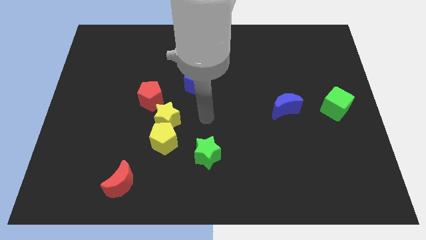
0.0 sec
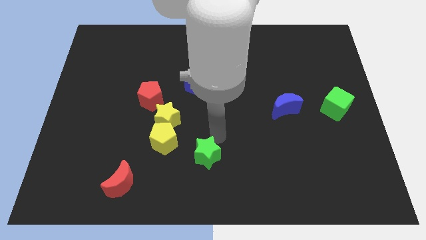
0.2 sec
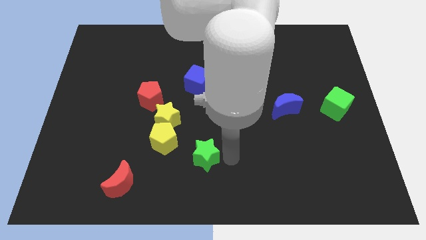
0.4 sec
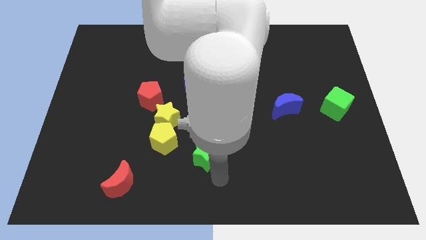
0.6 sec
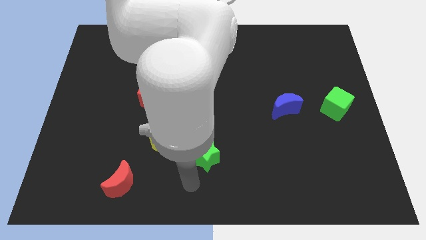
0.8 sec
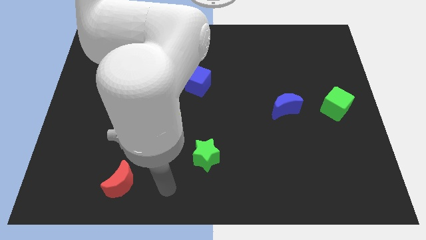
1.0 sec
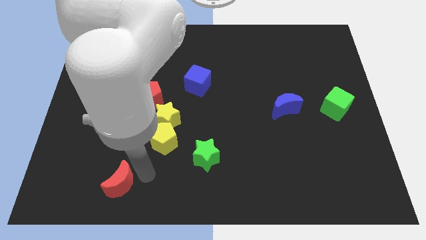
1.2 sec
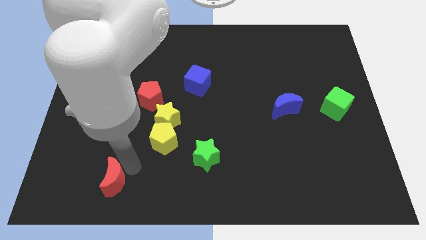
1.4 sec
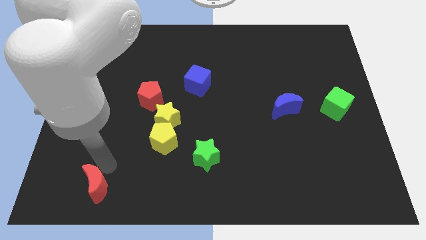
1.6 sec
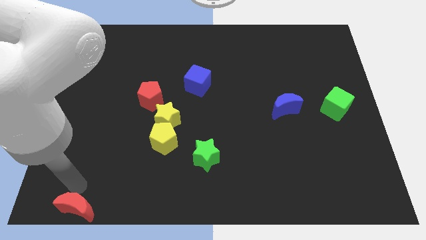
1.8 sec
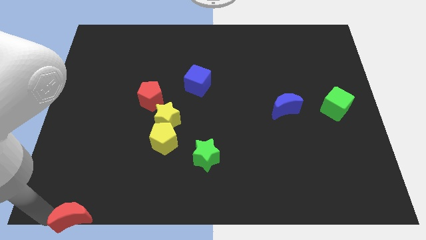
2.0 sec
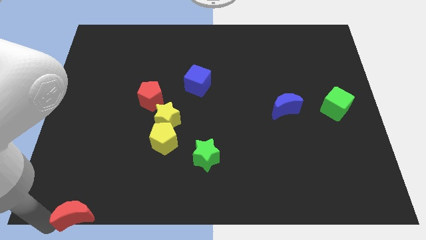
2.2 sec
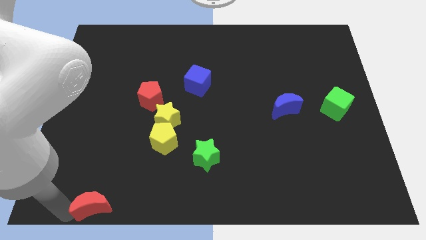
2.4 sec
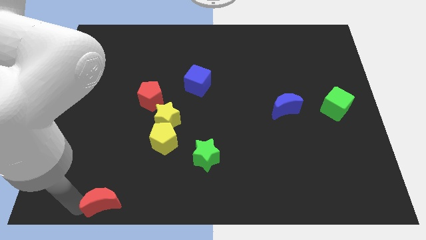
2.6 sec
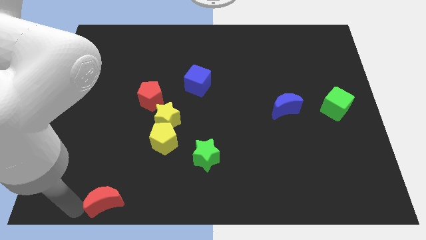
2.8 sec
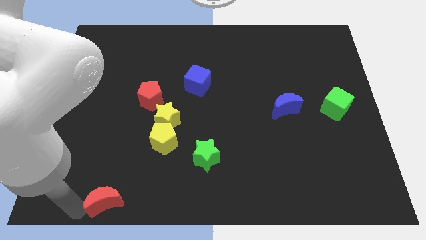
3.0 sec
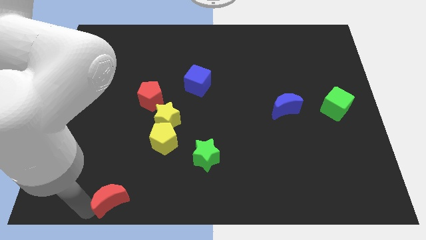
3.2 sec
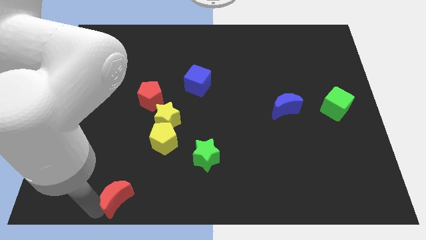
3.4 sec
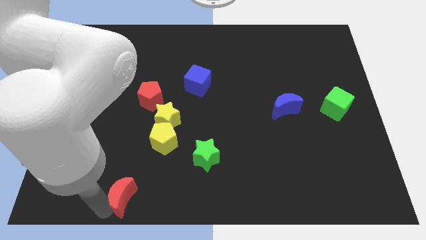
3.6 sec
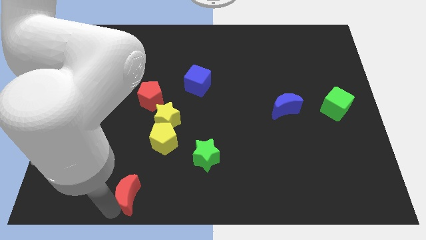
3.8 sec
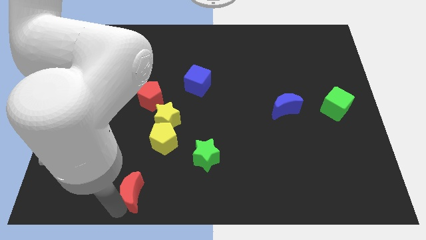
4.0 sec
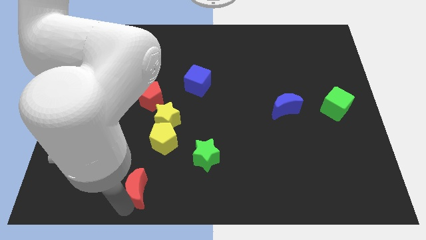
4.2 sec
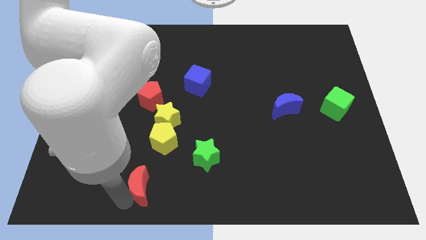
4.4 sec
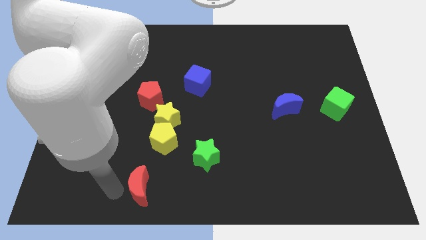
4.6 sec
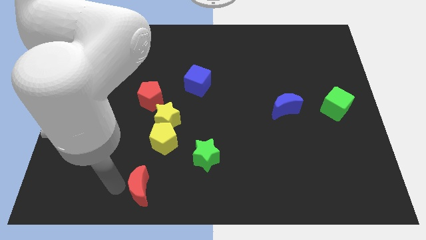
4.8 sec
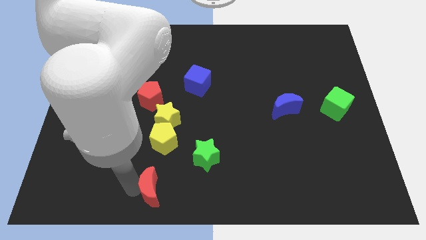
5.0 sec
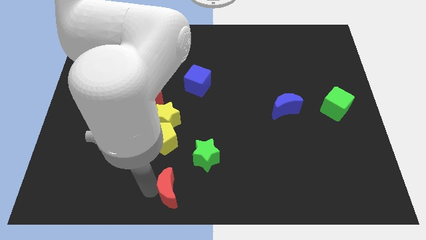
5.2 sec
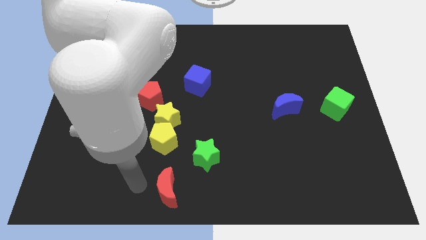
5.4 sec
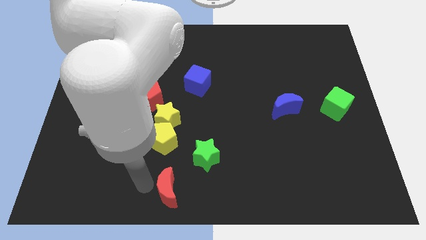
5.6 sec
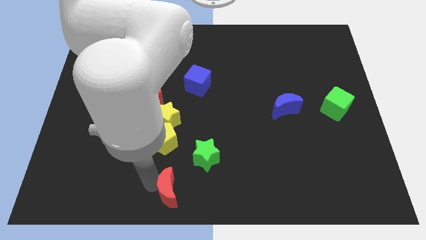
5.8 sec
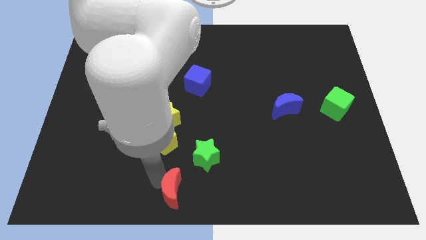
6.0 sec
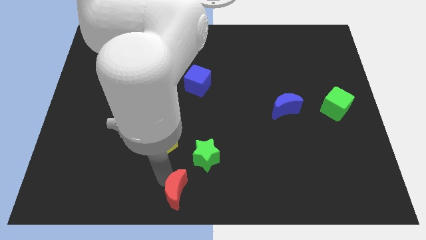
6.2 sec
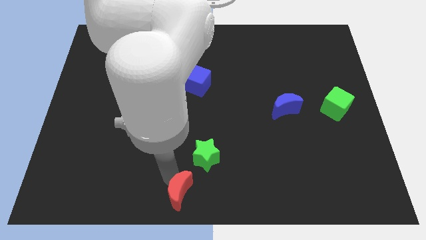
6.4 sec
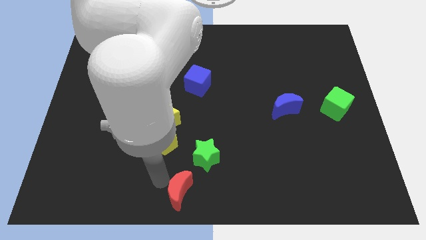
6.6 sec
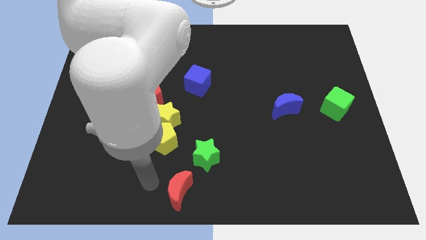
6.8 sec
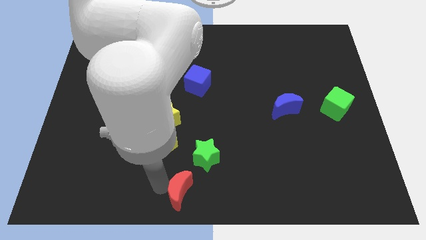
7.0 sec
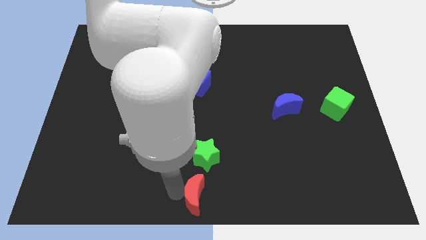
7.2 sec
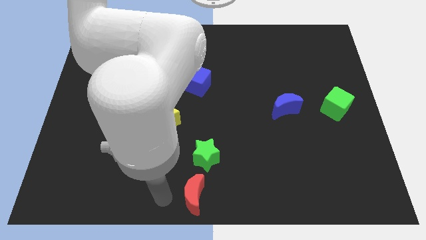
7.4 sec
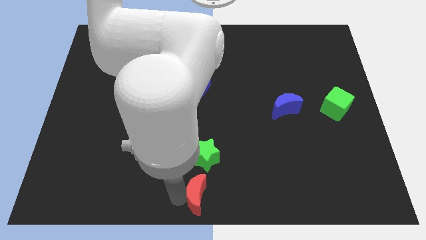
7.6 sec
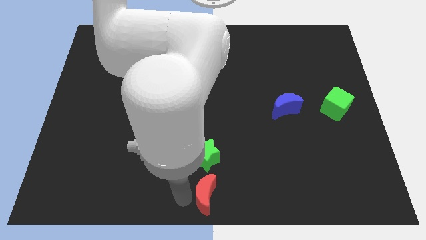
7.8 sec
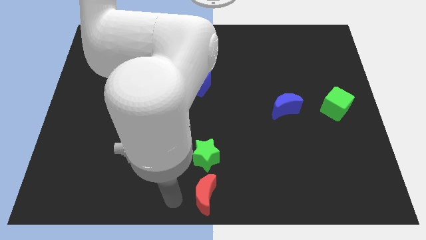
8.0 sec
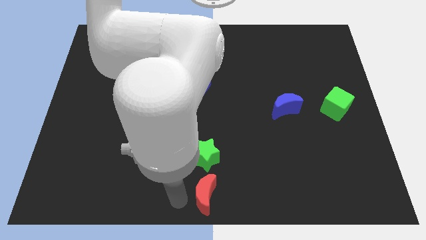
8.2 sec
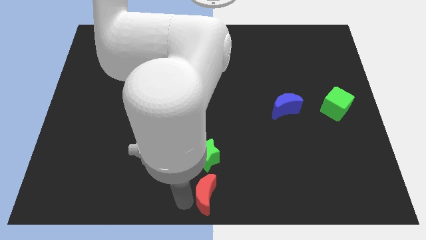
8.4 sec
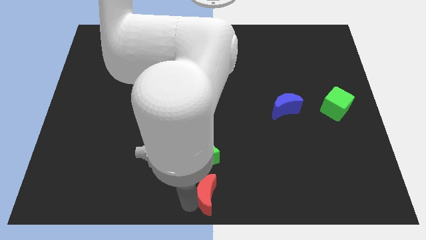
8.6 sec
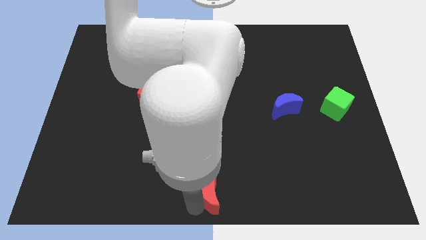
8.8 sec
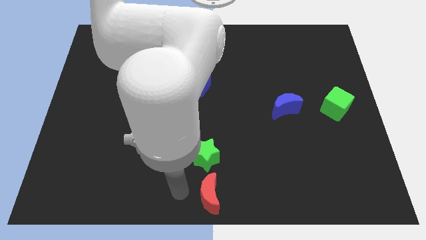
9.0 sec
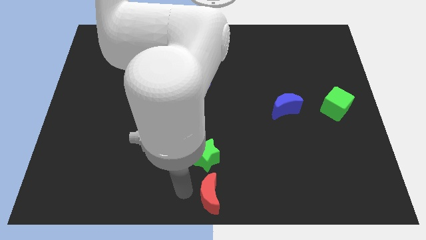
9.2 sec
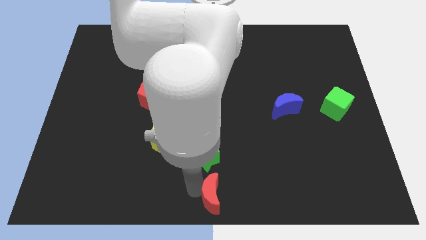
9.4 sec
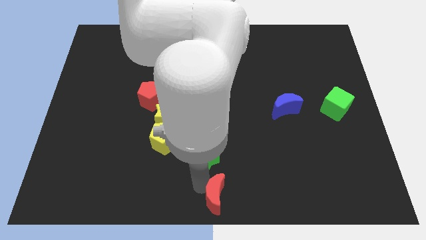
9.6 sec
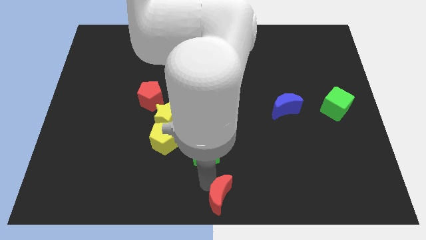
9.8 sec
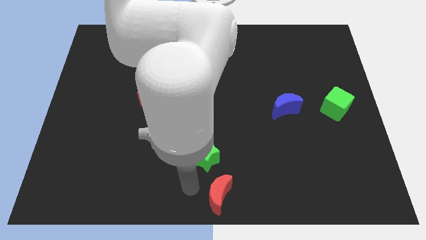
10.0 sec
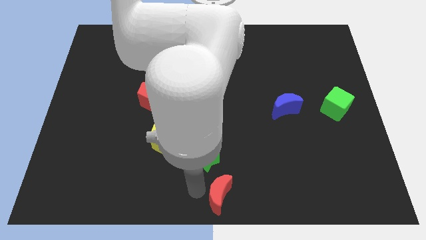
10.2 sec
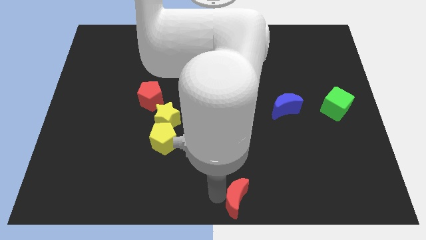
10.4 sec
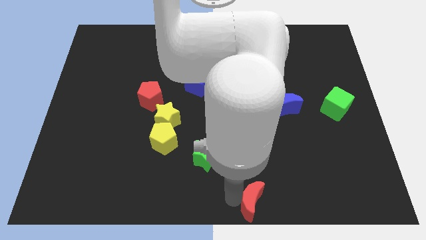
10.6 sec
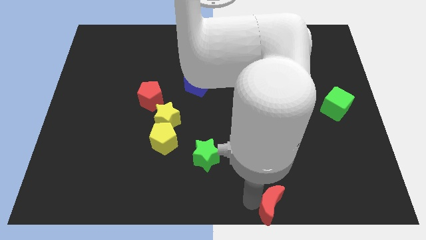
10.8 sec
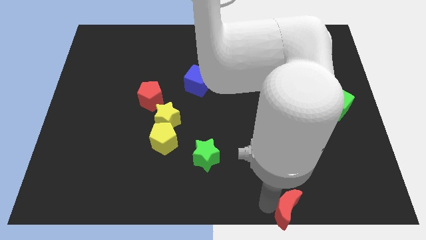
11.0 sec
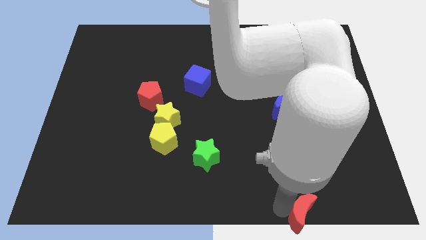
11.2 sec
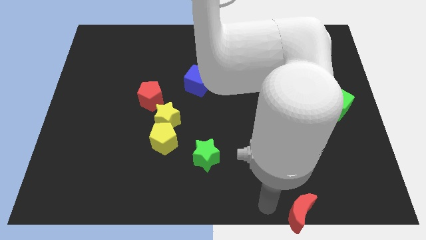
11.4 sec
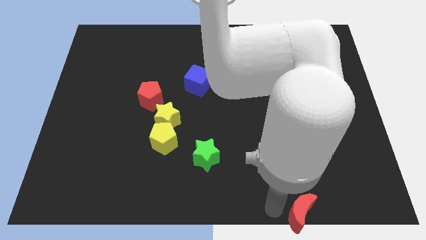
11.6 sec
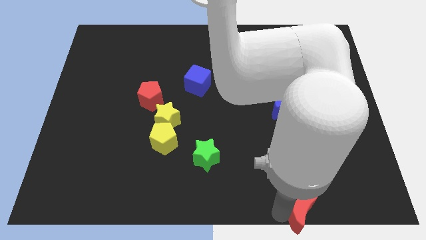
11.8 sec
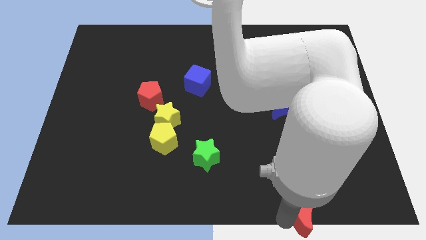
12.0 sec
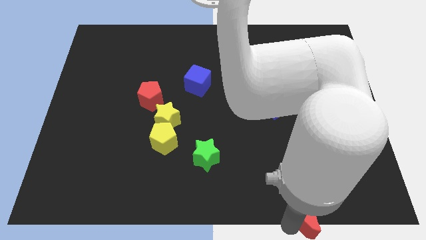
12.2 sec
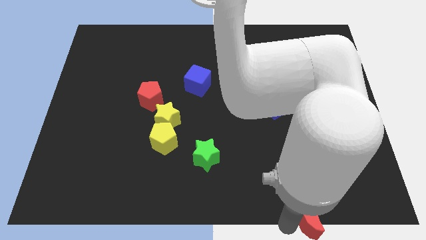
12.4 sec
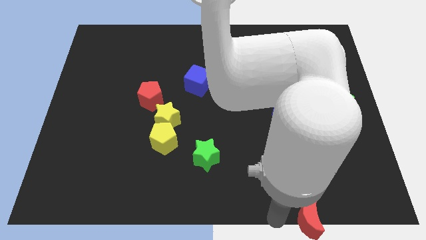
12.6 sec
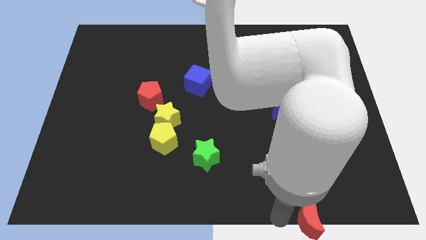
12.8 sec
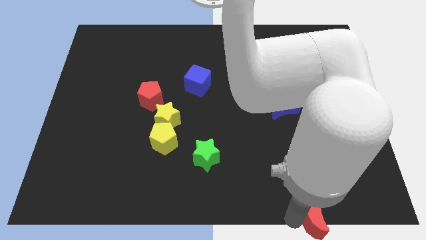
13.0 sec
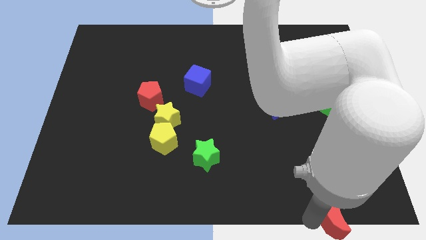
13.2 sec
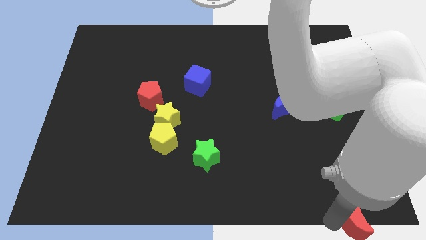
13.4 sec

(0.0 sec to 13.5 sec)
put the red moon to the bottom right of the board
